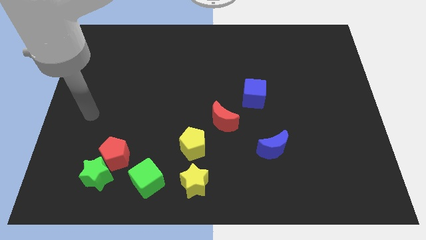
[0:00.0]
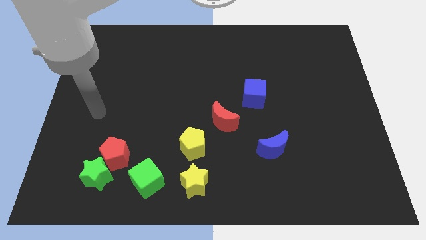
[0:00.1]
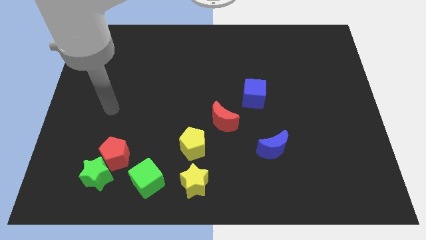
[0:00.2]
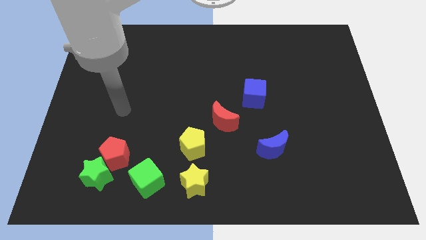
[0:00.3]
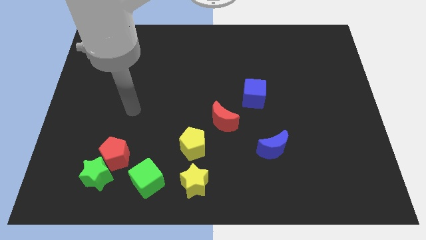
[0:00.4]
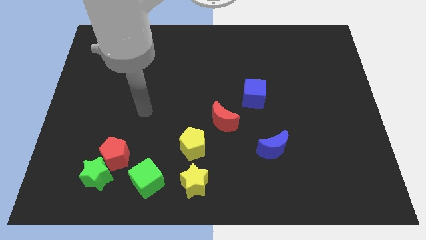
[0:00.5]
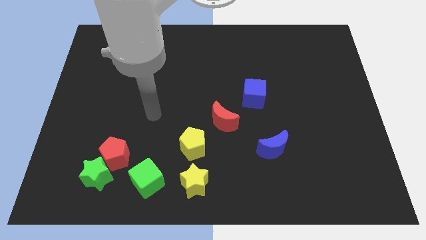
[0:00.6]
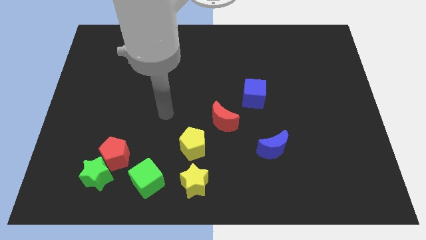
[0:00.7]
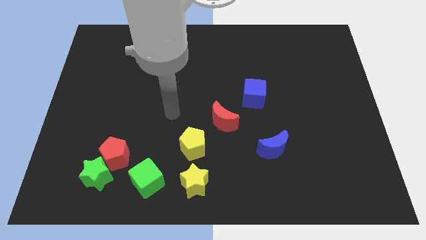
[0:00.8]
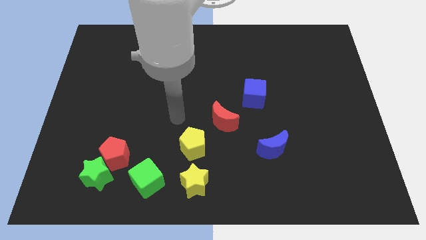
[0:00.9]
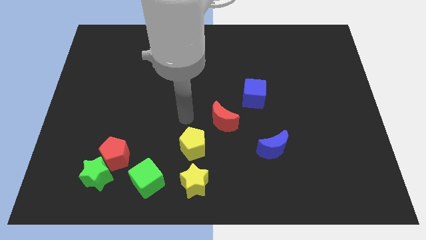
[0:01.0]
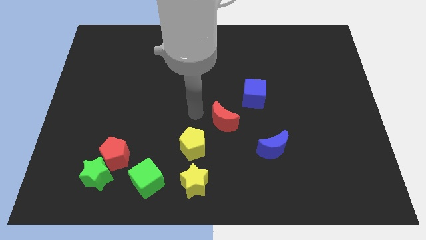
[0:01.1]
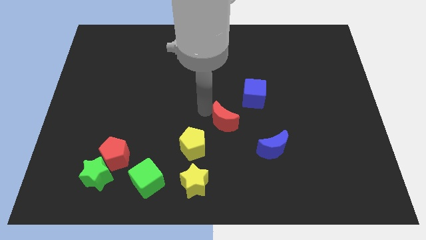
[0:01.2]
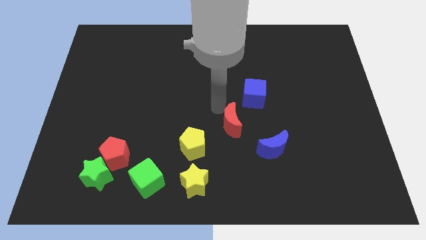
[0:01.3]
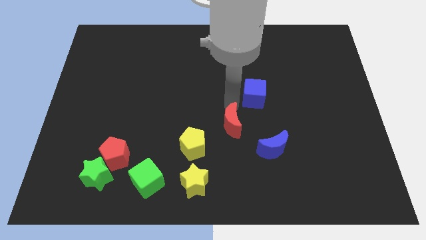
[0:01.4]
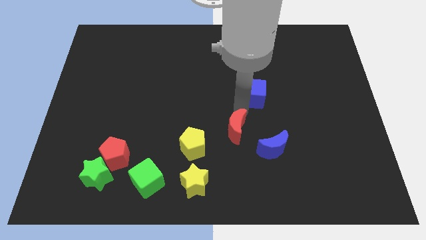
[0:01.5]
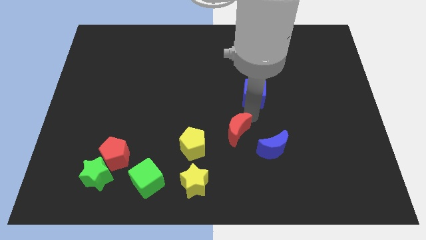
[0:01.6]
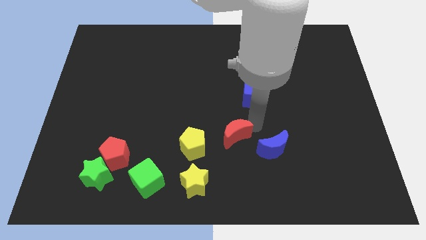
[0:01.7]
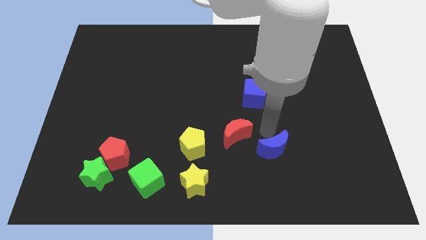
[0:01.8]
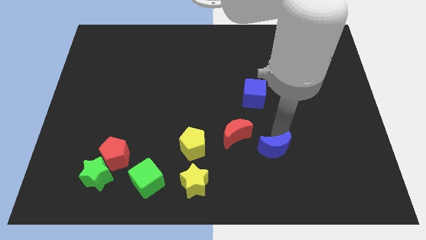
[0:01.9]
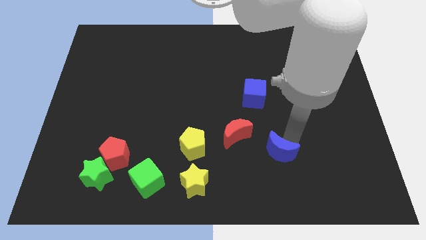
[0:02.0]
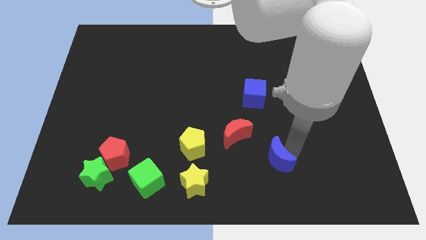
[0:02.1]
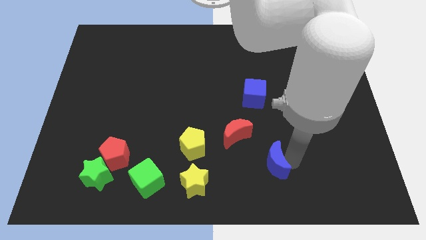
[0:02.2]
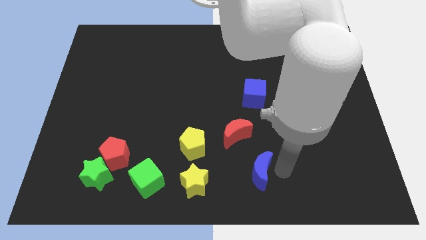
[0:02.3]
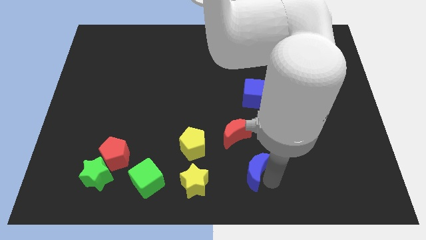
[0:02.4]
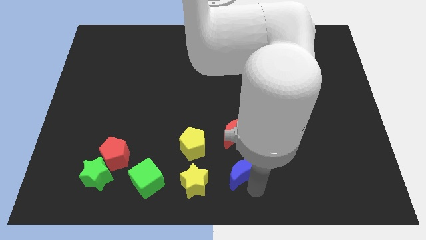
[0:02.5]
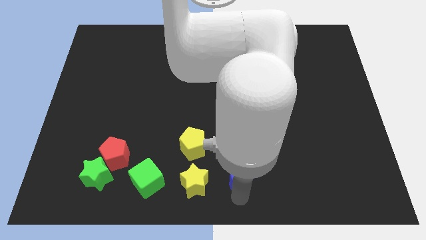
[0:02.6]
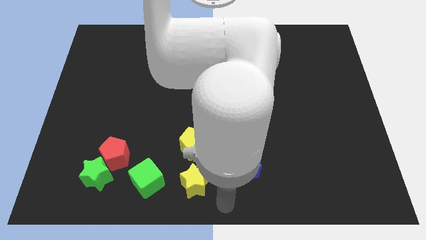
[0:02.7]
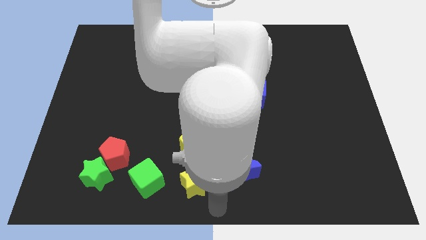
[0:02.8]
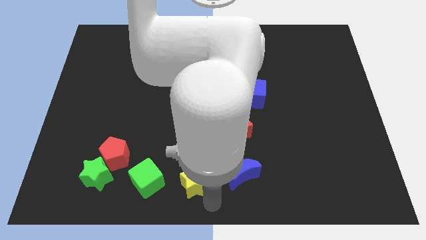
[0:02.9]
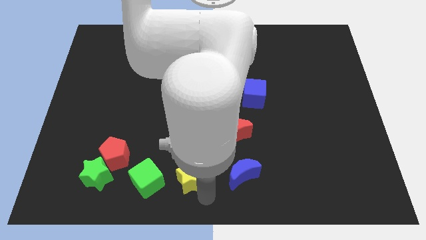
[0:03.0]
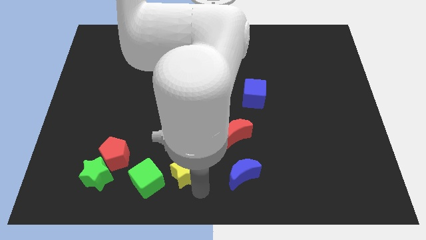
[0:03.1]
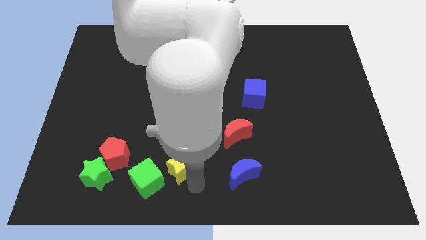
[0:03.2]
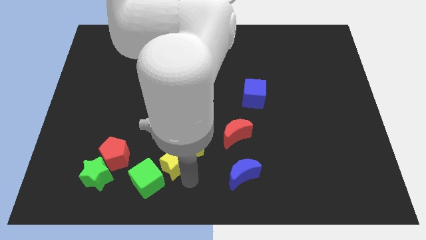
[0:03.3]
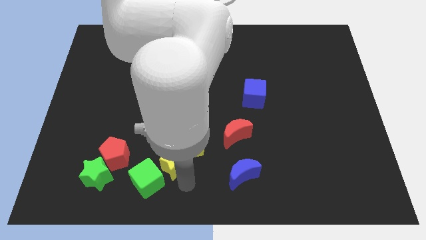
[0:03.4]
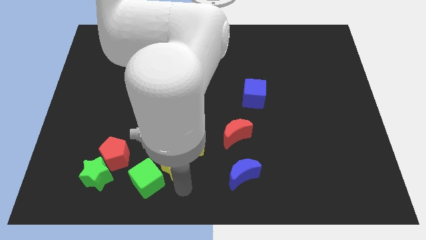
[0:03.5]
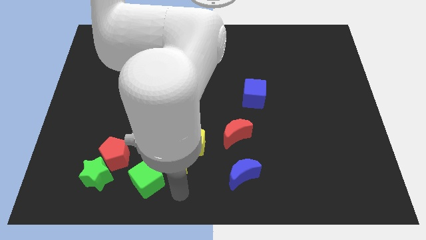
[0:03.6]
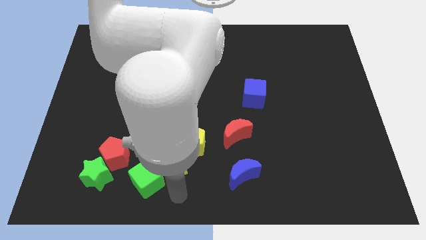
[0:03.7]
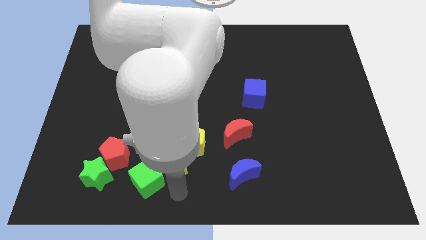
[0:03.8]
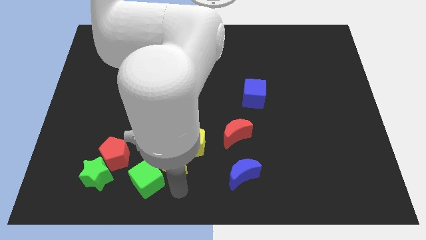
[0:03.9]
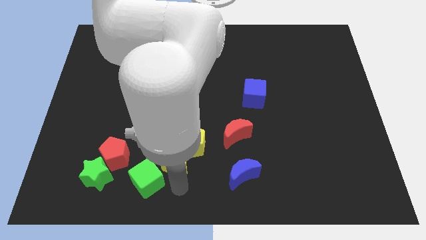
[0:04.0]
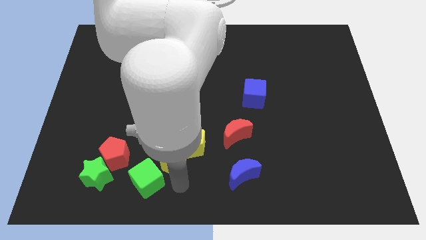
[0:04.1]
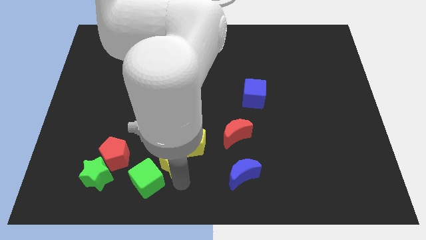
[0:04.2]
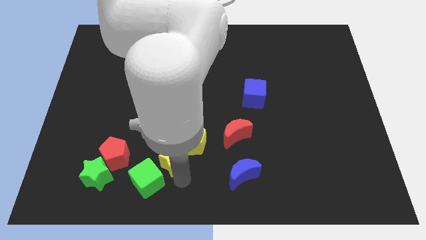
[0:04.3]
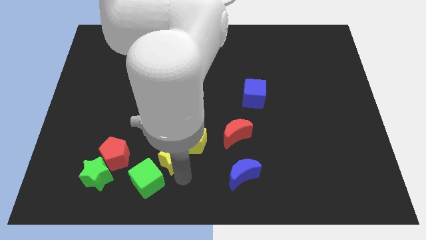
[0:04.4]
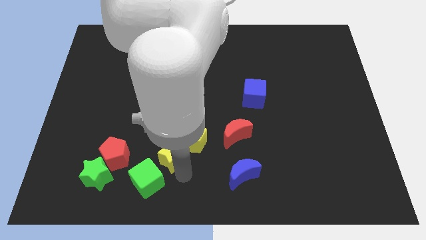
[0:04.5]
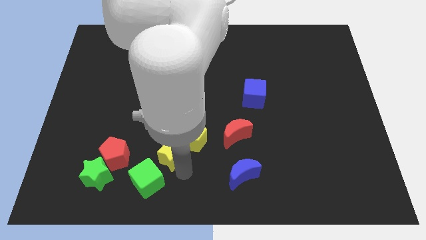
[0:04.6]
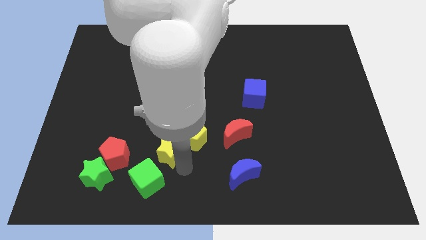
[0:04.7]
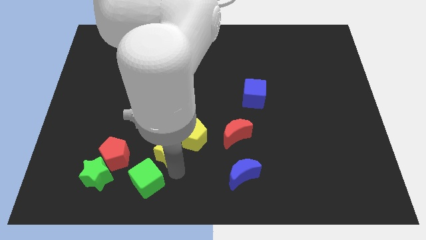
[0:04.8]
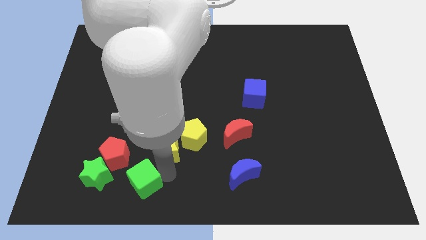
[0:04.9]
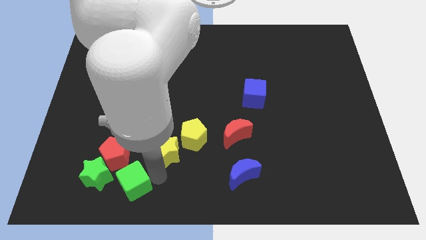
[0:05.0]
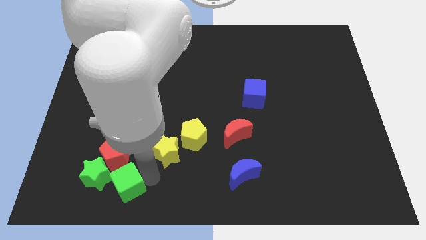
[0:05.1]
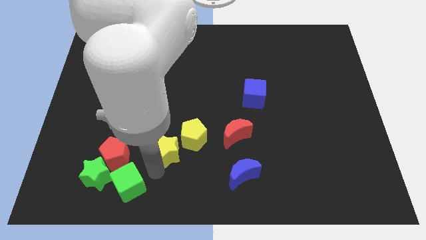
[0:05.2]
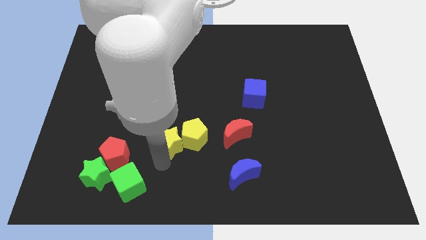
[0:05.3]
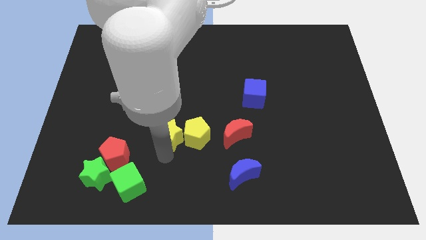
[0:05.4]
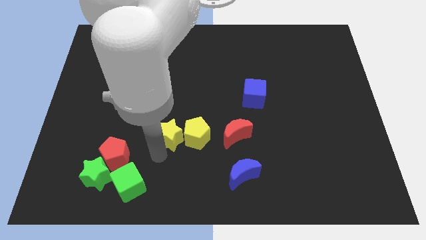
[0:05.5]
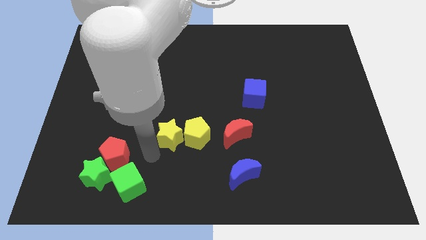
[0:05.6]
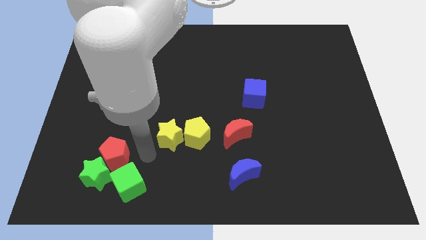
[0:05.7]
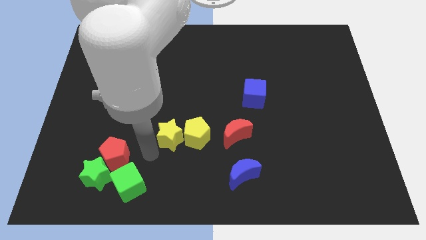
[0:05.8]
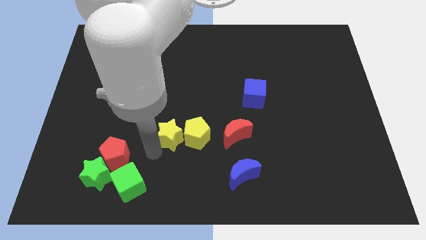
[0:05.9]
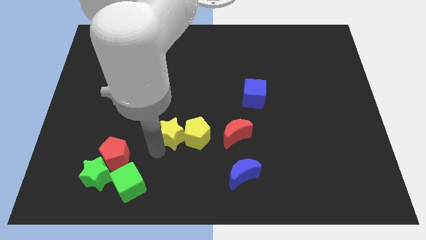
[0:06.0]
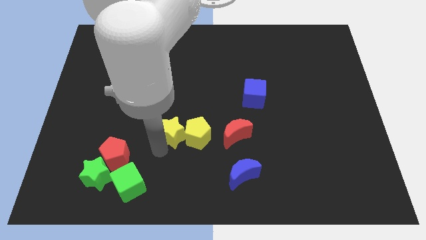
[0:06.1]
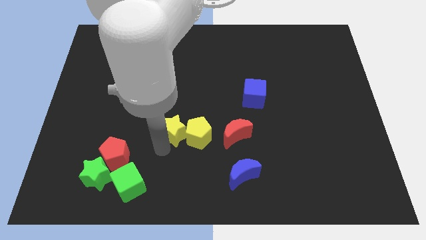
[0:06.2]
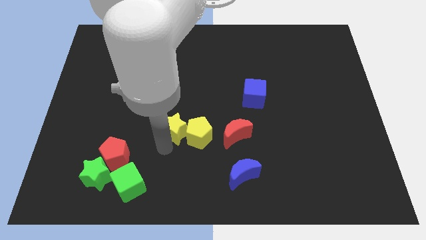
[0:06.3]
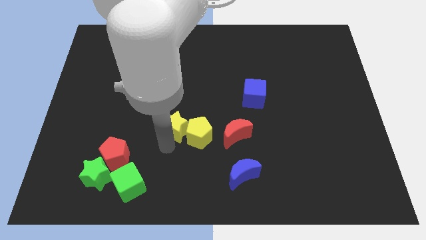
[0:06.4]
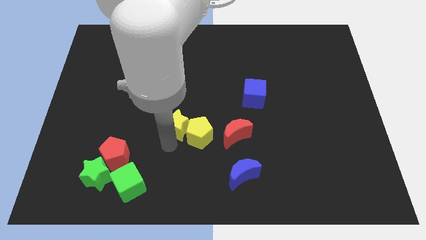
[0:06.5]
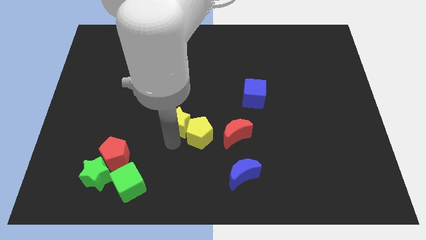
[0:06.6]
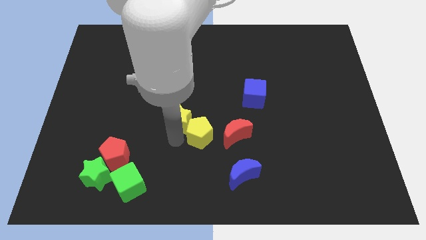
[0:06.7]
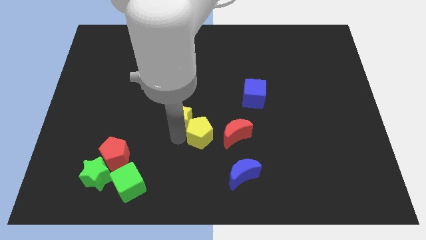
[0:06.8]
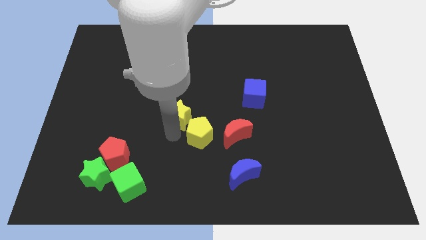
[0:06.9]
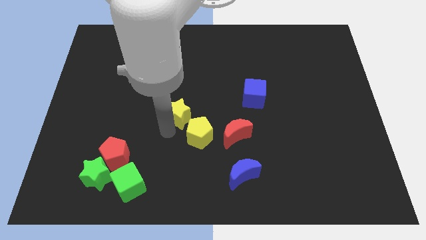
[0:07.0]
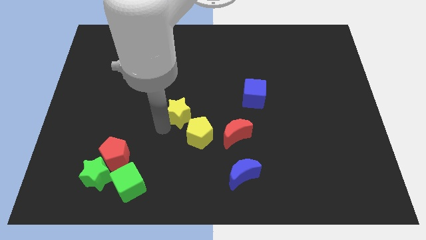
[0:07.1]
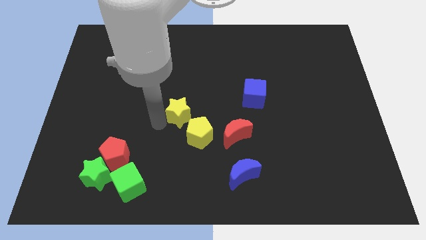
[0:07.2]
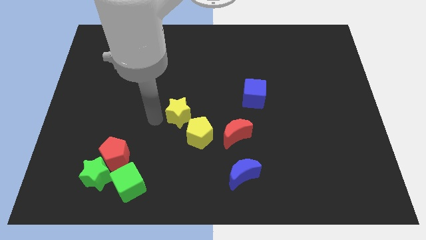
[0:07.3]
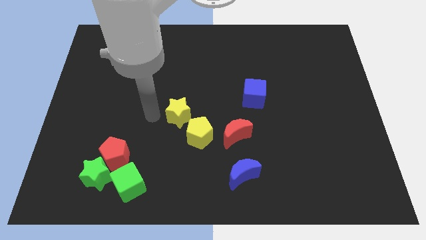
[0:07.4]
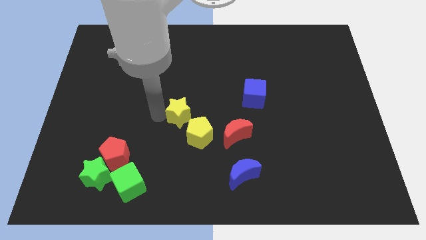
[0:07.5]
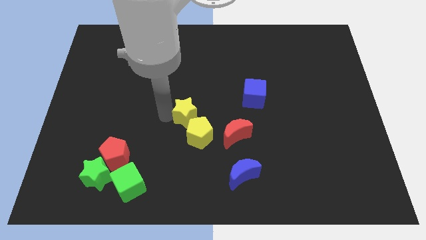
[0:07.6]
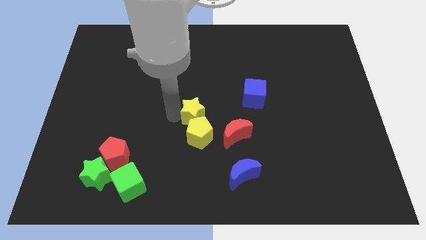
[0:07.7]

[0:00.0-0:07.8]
push the yellow star diagonally up and to the left of the red moon
